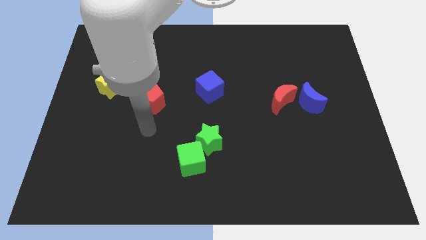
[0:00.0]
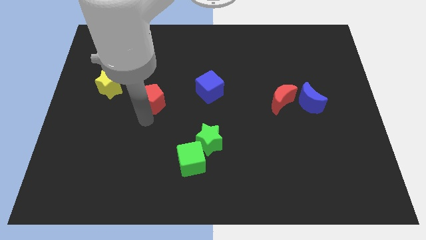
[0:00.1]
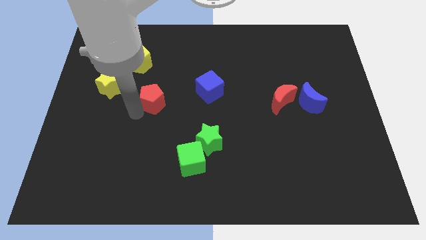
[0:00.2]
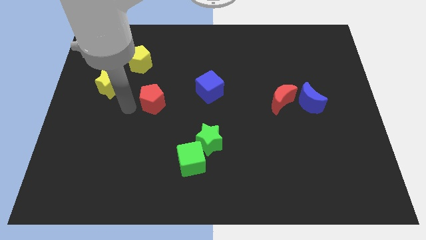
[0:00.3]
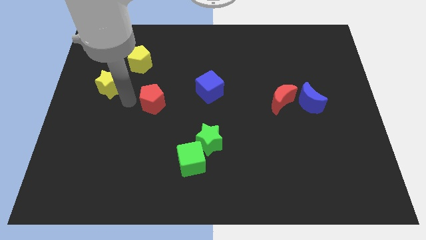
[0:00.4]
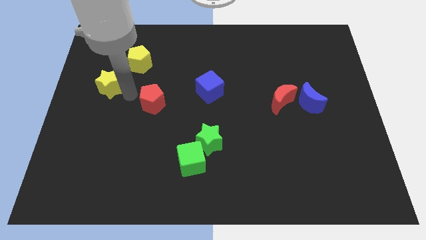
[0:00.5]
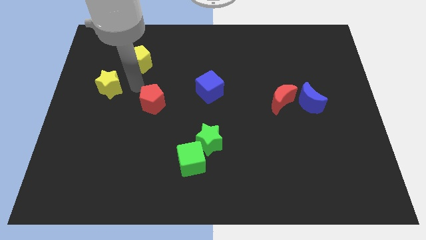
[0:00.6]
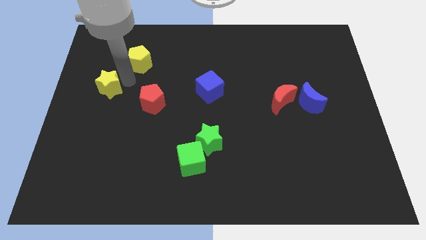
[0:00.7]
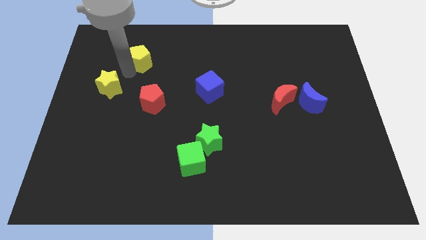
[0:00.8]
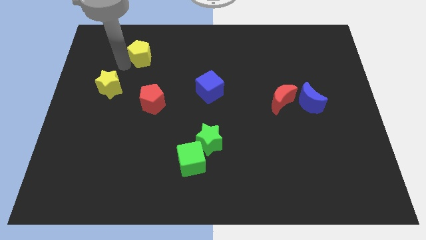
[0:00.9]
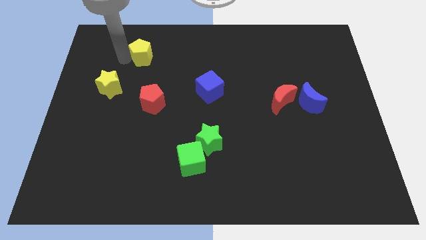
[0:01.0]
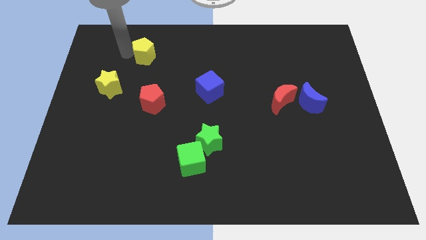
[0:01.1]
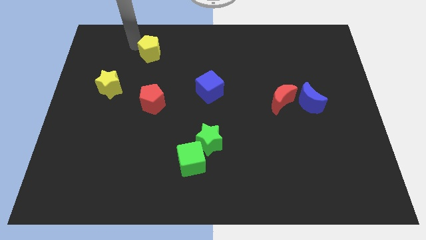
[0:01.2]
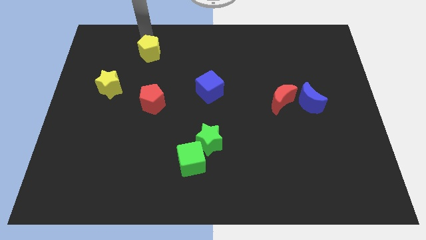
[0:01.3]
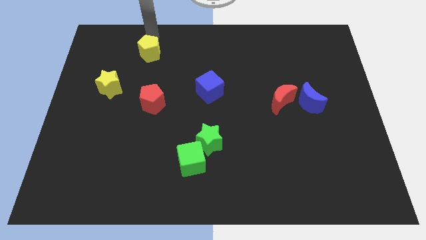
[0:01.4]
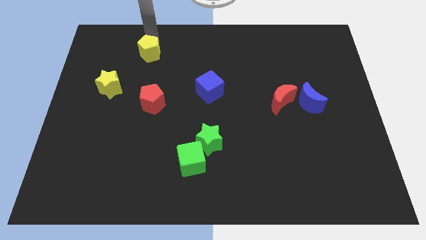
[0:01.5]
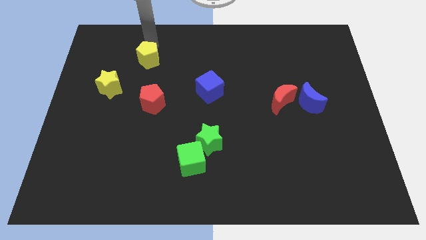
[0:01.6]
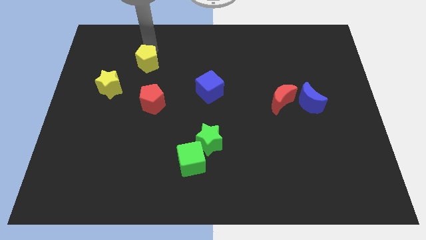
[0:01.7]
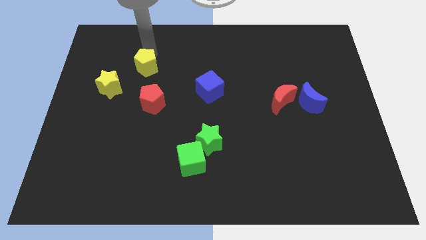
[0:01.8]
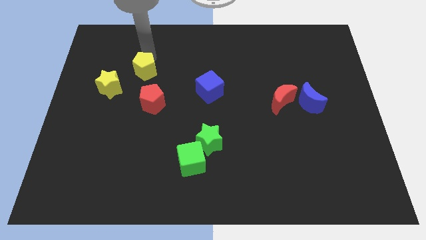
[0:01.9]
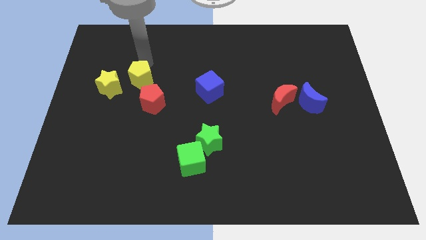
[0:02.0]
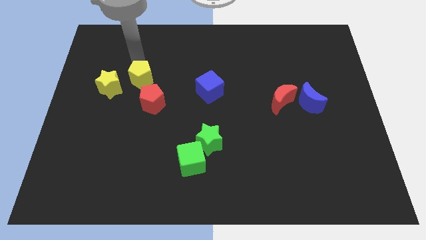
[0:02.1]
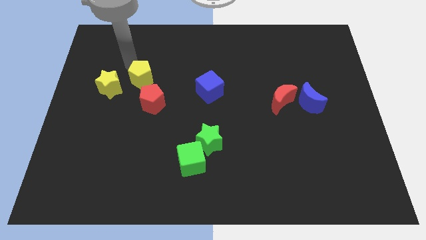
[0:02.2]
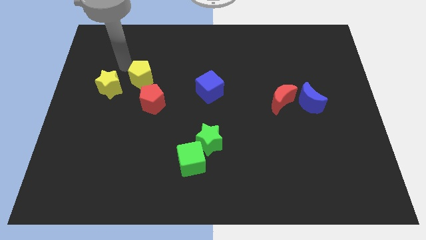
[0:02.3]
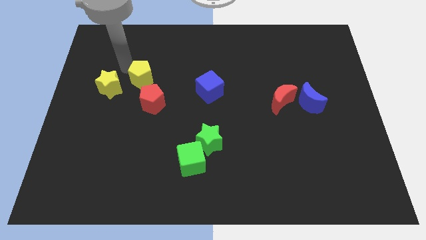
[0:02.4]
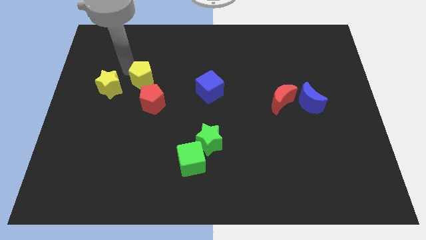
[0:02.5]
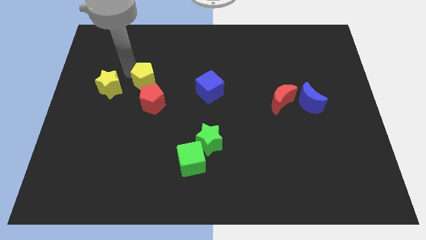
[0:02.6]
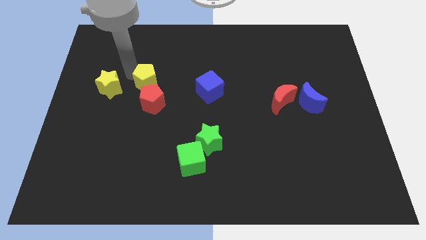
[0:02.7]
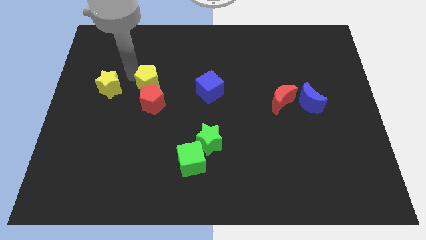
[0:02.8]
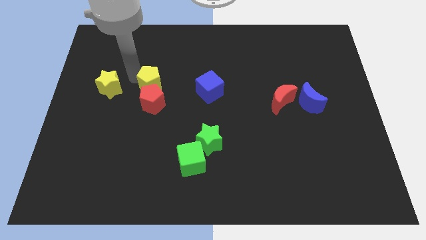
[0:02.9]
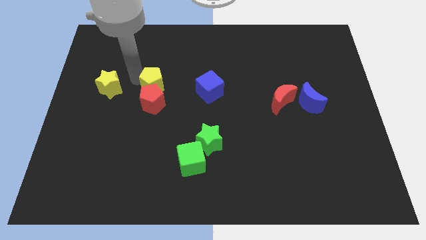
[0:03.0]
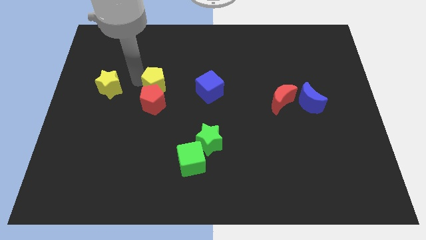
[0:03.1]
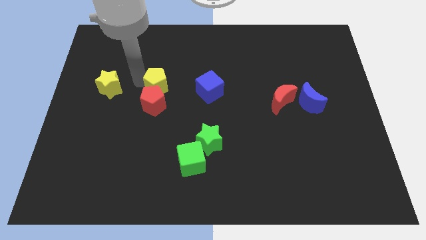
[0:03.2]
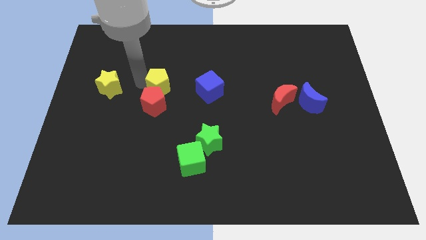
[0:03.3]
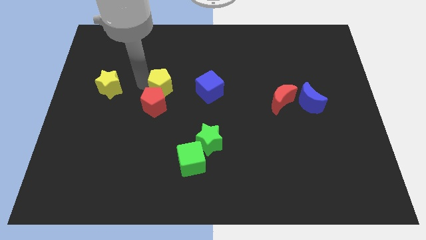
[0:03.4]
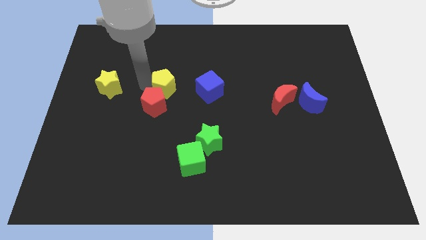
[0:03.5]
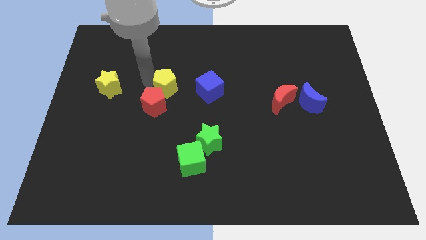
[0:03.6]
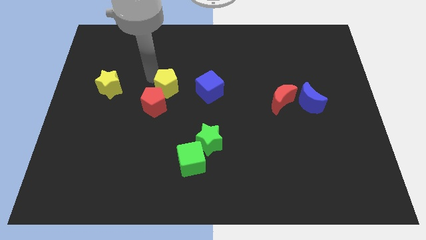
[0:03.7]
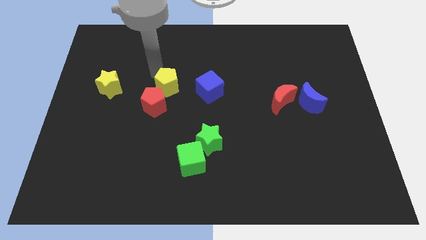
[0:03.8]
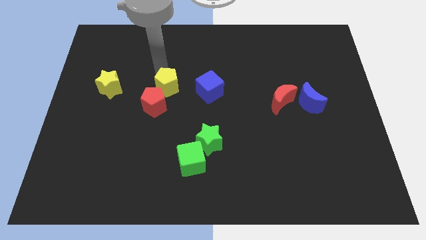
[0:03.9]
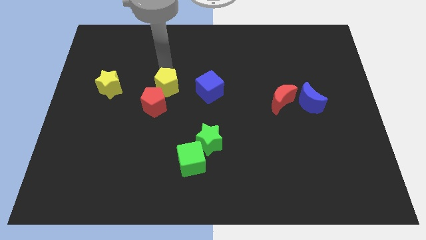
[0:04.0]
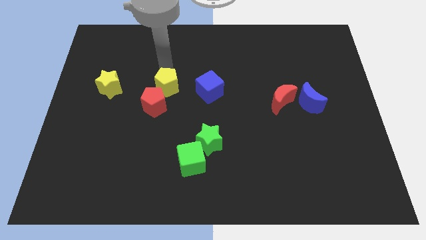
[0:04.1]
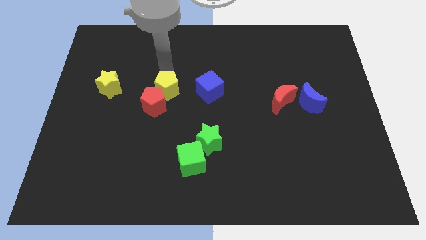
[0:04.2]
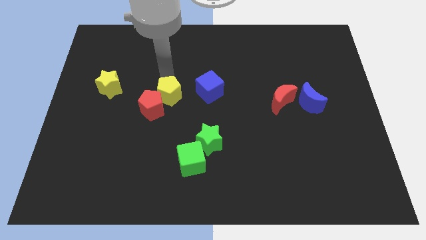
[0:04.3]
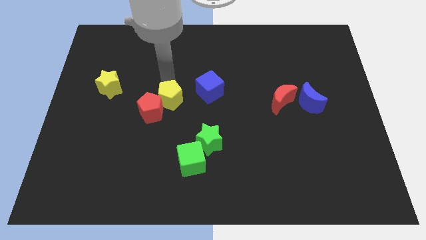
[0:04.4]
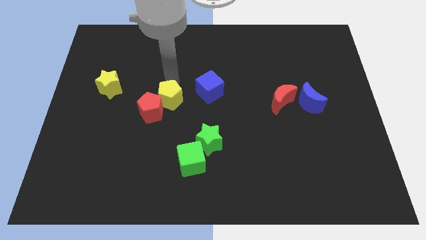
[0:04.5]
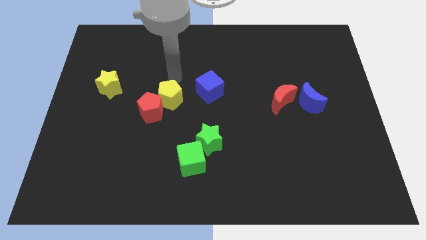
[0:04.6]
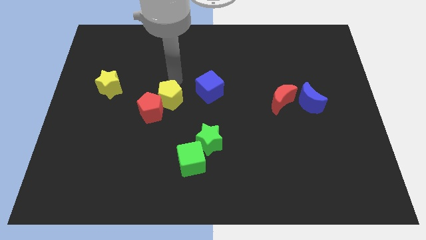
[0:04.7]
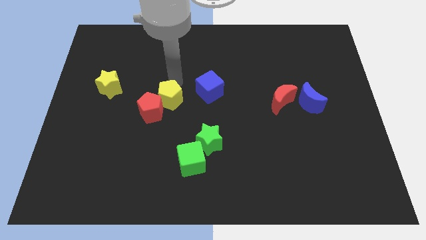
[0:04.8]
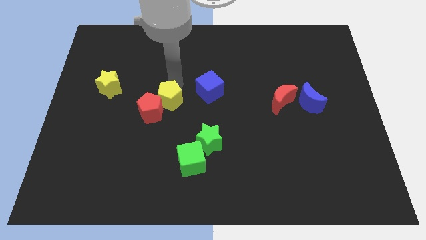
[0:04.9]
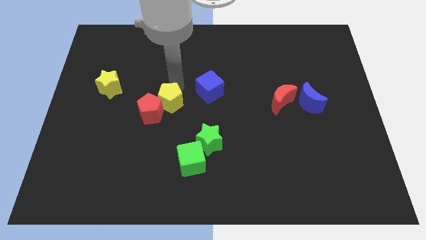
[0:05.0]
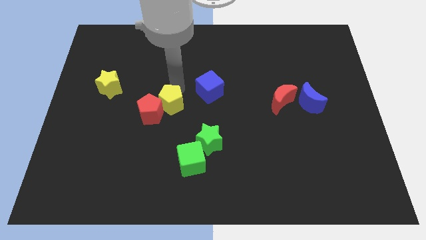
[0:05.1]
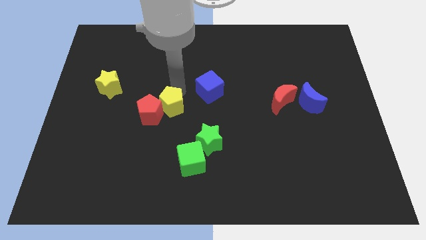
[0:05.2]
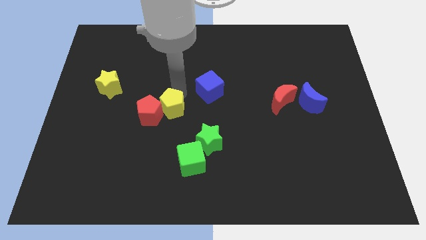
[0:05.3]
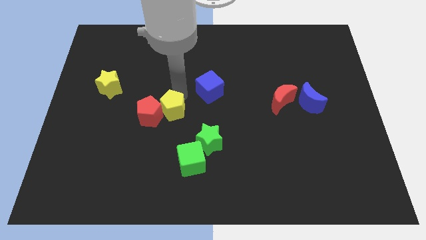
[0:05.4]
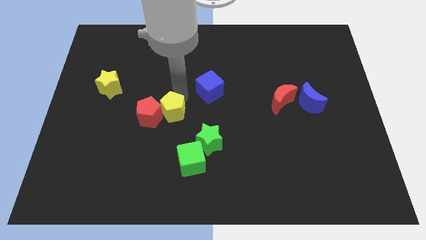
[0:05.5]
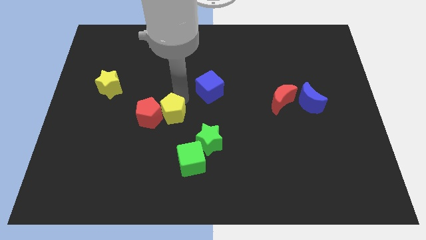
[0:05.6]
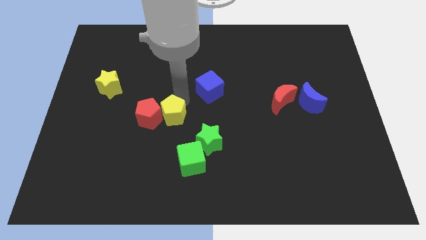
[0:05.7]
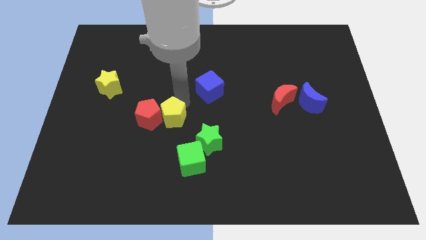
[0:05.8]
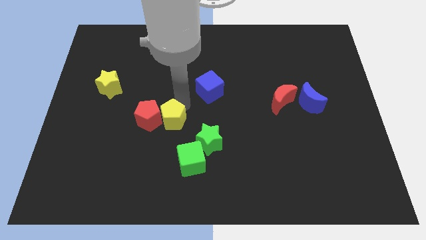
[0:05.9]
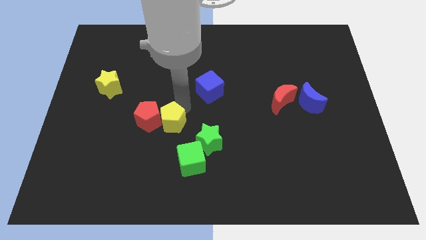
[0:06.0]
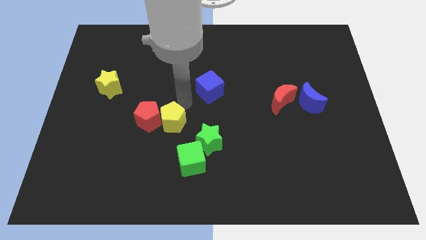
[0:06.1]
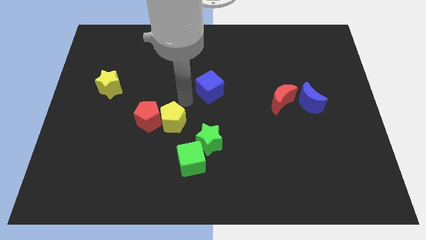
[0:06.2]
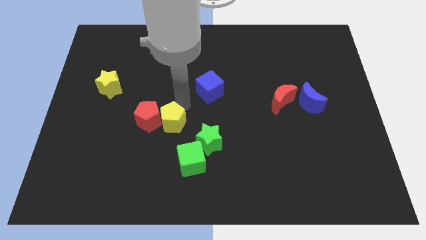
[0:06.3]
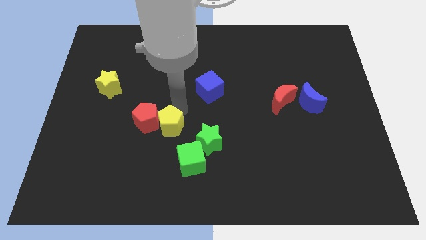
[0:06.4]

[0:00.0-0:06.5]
slide the yellow pentagon just left of the green star
